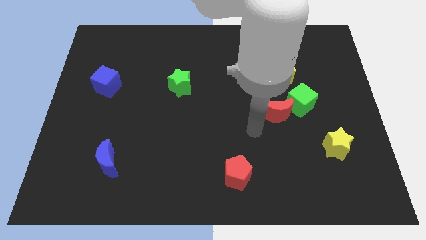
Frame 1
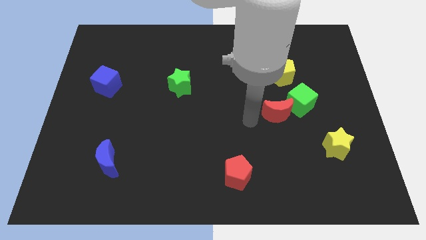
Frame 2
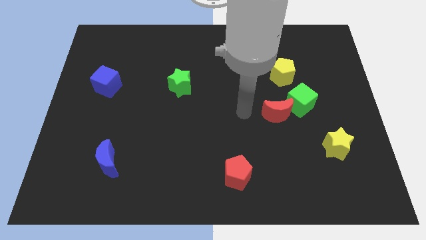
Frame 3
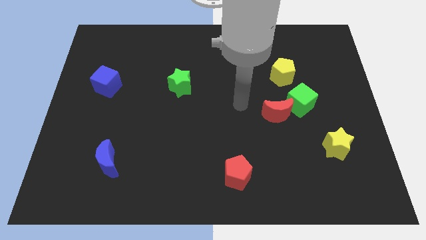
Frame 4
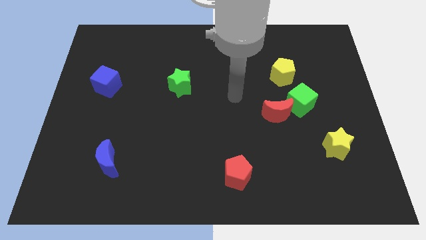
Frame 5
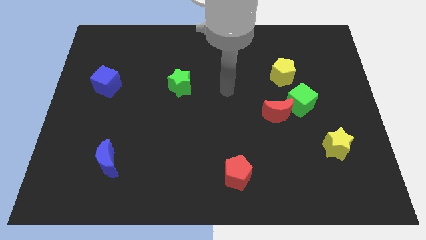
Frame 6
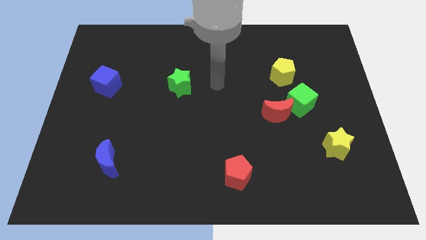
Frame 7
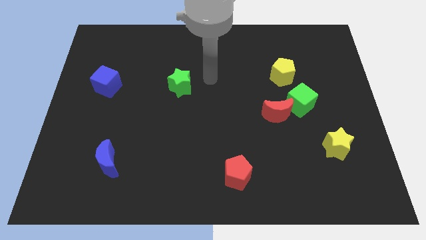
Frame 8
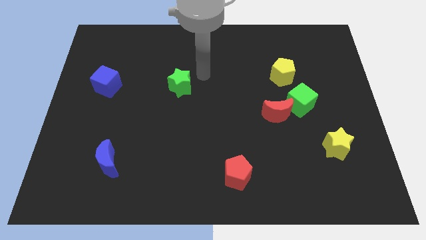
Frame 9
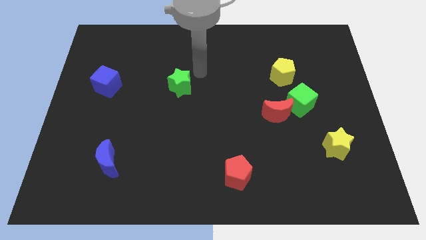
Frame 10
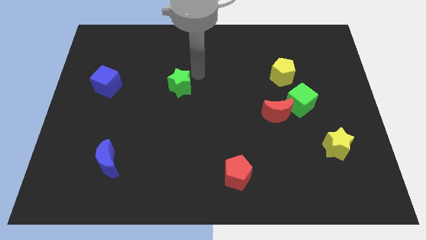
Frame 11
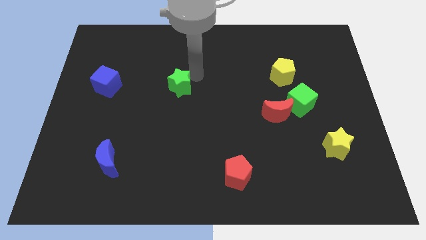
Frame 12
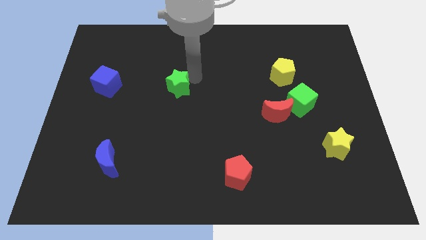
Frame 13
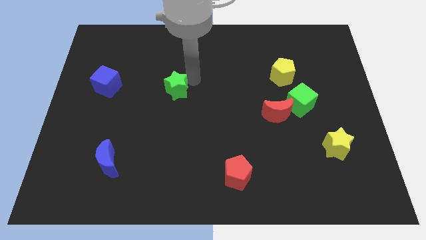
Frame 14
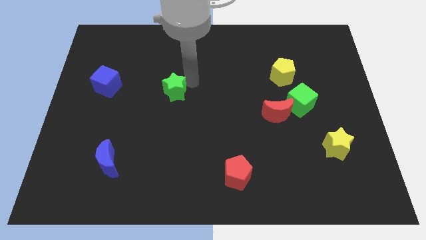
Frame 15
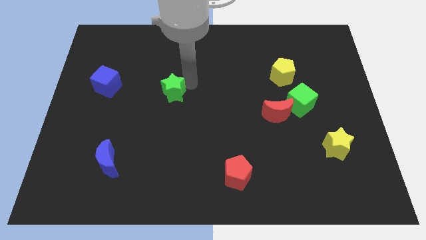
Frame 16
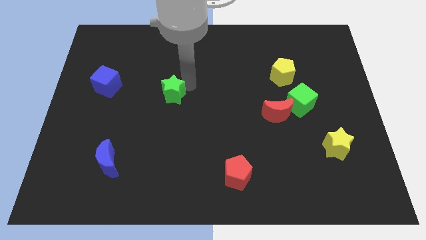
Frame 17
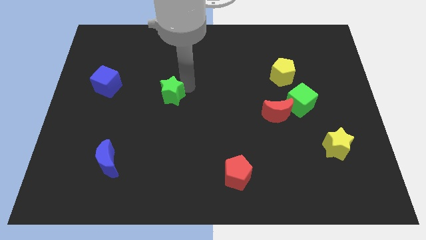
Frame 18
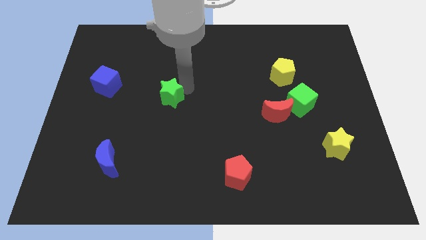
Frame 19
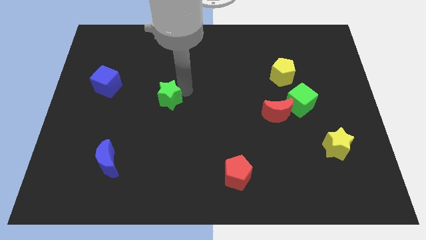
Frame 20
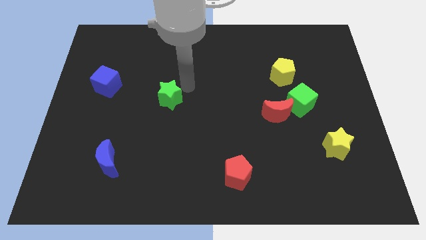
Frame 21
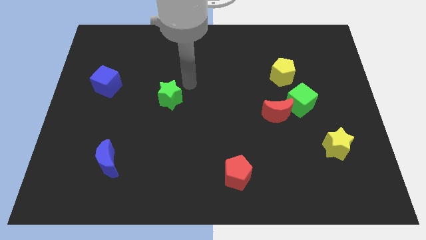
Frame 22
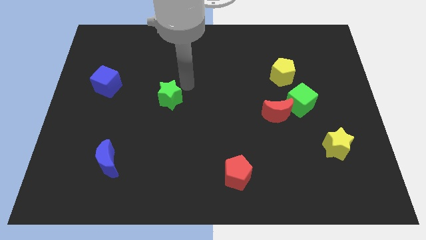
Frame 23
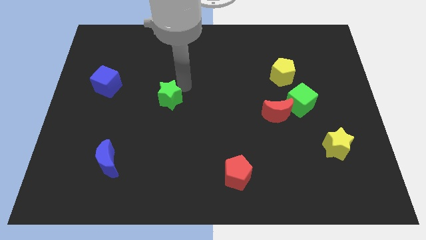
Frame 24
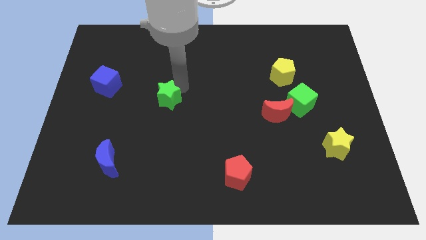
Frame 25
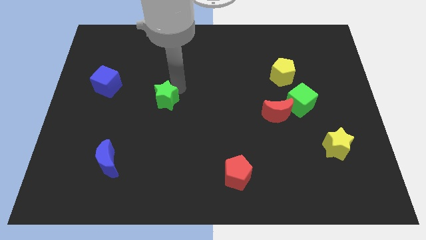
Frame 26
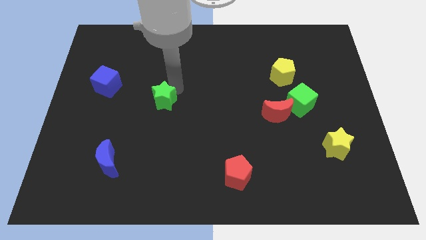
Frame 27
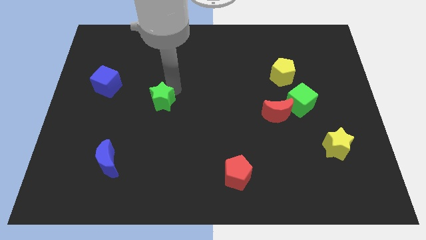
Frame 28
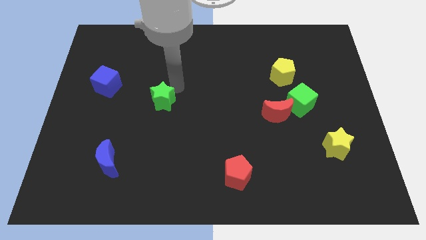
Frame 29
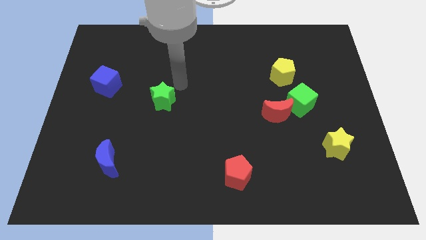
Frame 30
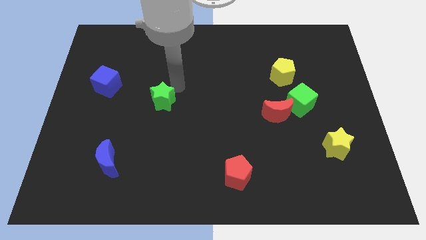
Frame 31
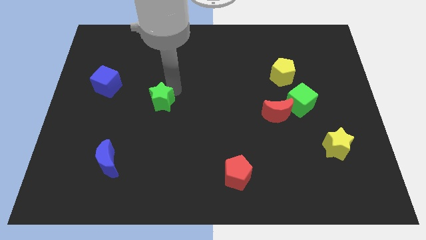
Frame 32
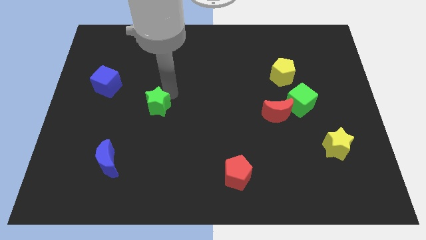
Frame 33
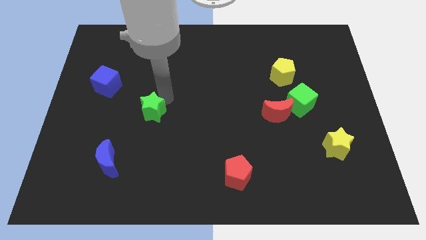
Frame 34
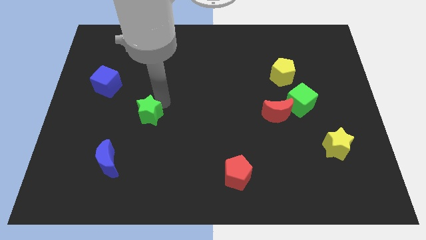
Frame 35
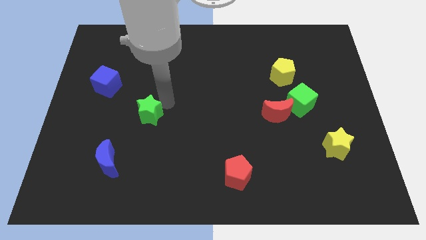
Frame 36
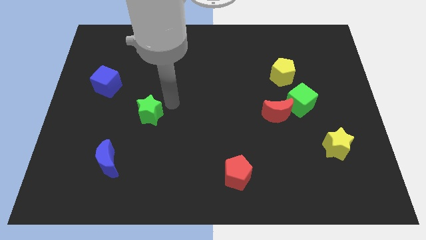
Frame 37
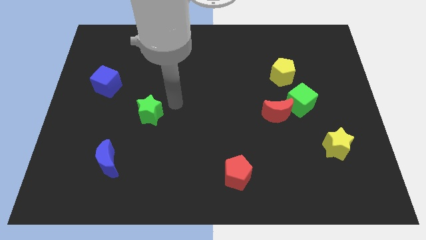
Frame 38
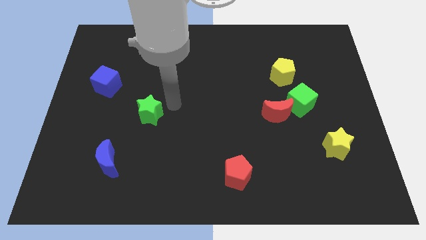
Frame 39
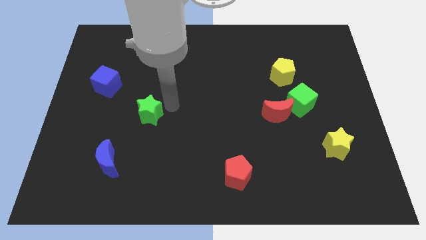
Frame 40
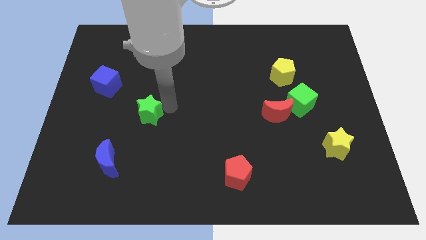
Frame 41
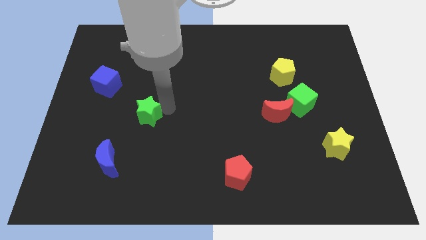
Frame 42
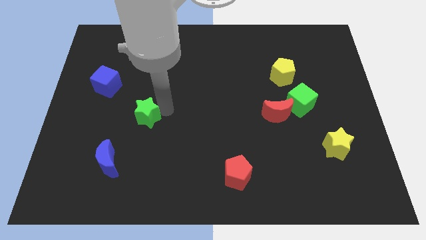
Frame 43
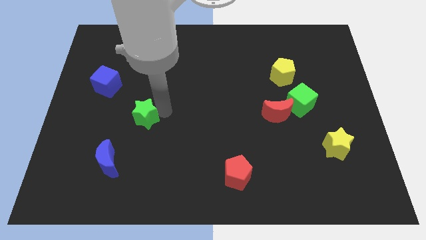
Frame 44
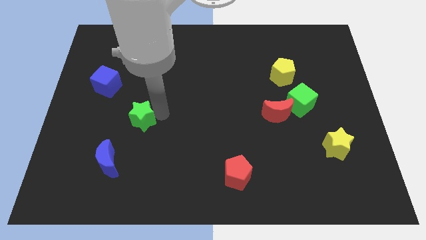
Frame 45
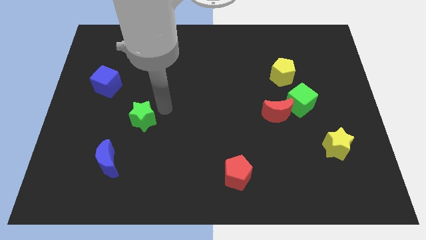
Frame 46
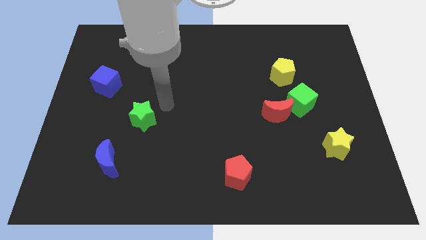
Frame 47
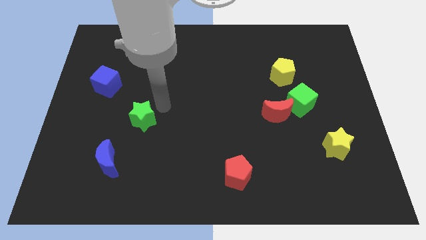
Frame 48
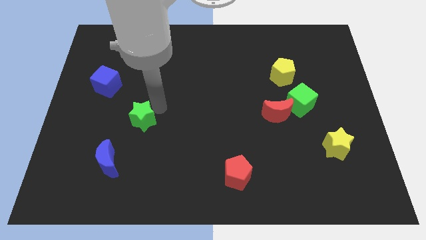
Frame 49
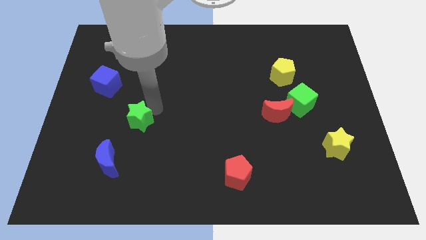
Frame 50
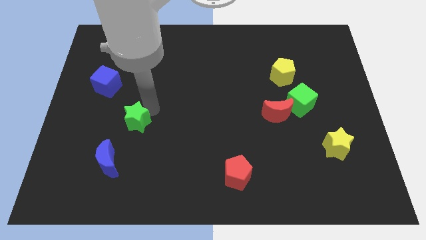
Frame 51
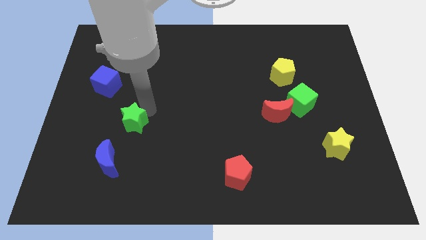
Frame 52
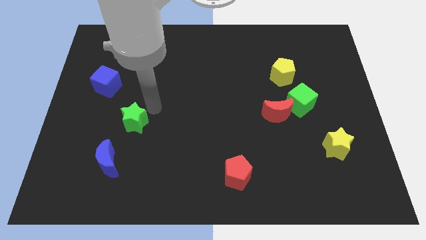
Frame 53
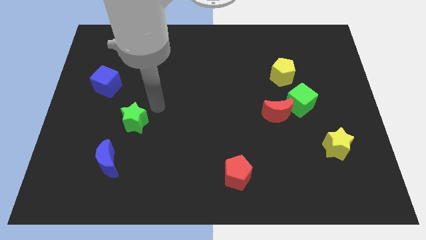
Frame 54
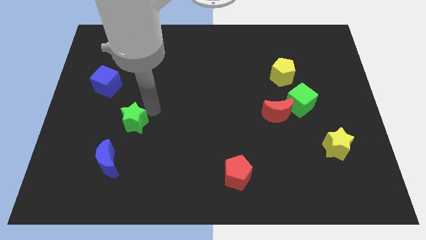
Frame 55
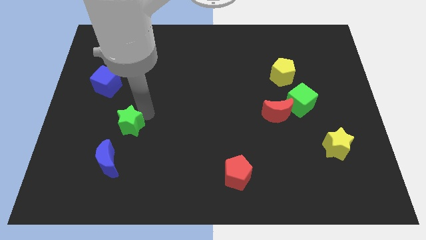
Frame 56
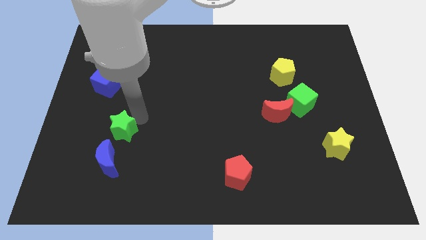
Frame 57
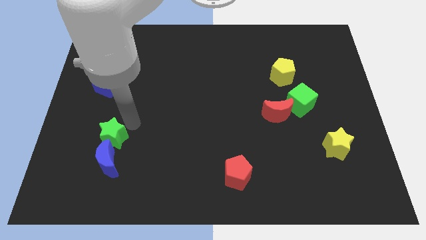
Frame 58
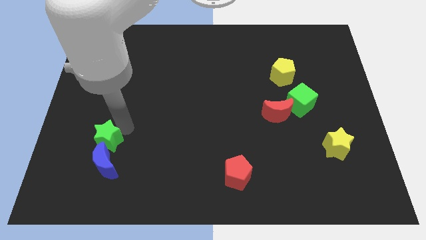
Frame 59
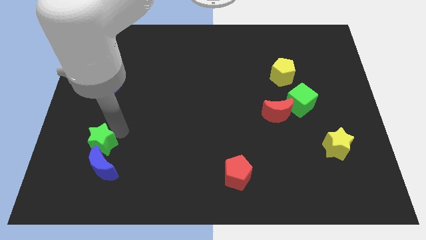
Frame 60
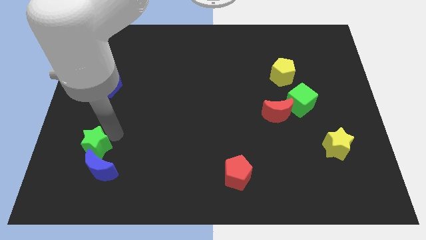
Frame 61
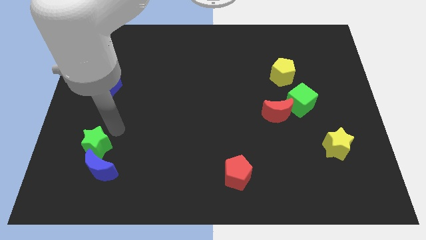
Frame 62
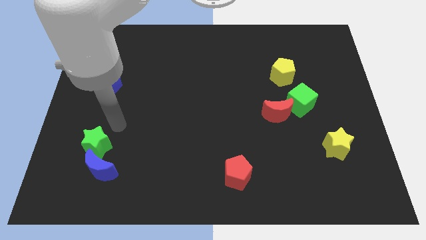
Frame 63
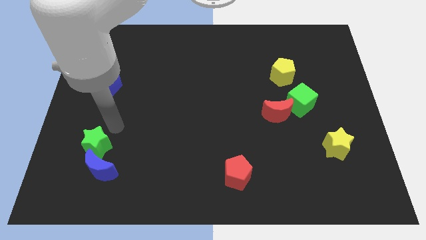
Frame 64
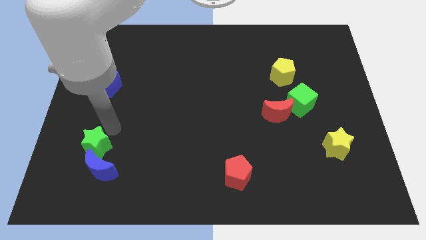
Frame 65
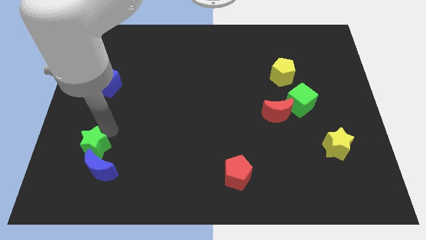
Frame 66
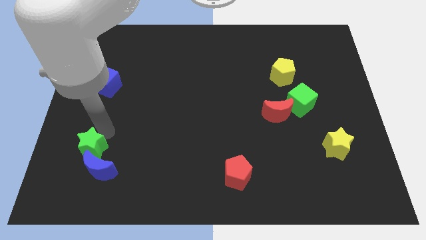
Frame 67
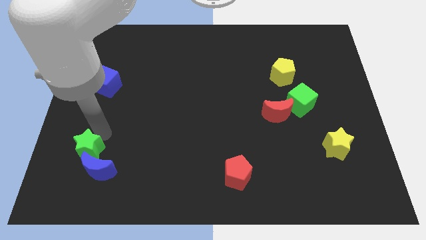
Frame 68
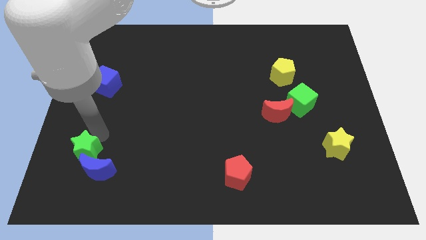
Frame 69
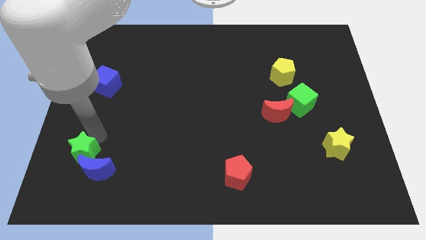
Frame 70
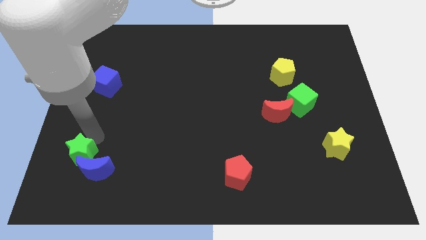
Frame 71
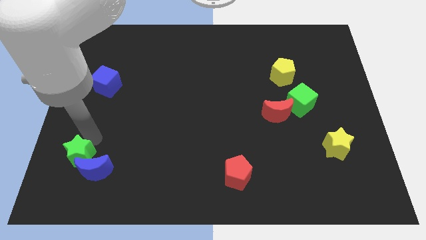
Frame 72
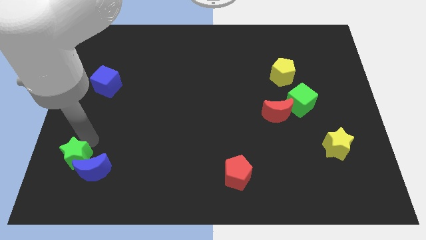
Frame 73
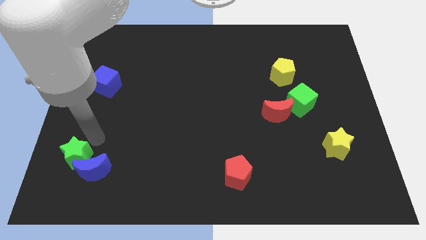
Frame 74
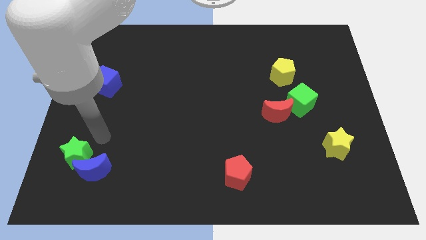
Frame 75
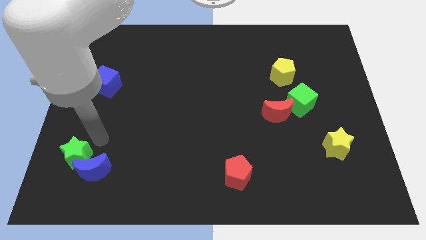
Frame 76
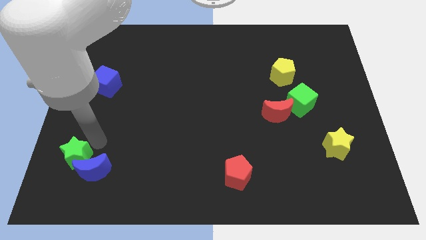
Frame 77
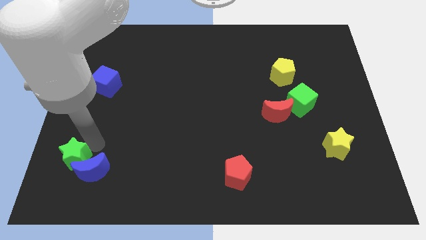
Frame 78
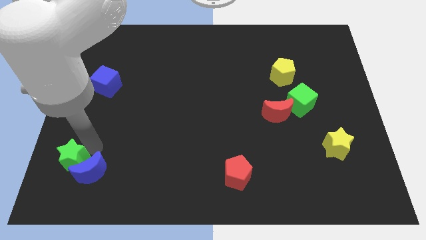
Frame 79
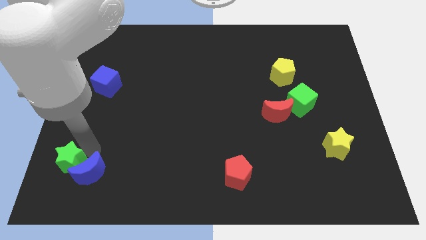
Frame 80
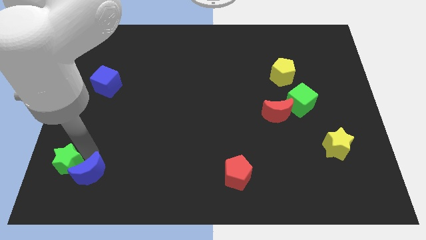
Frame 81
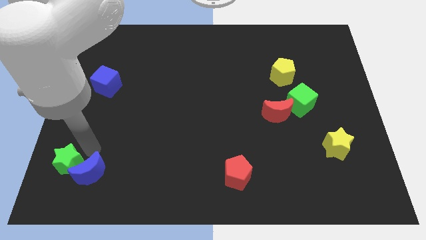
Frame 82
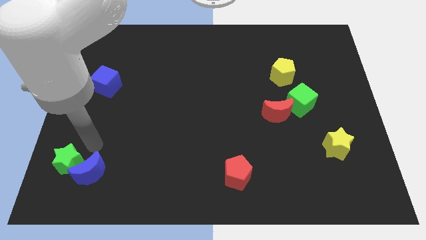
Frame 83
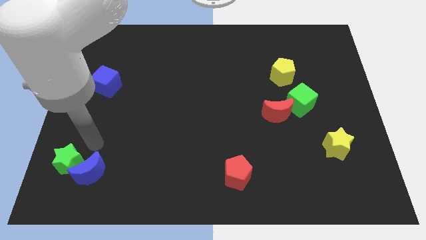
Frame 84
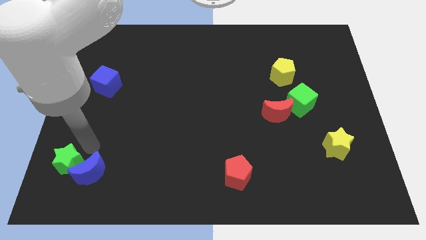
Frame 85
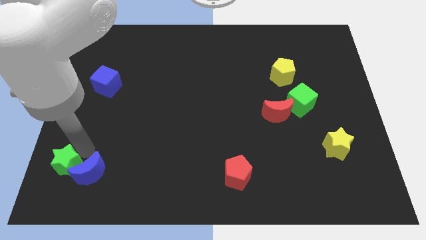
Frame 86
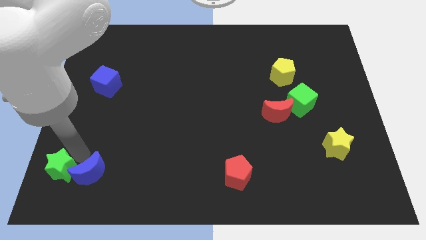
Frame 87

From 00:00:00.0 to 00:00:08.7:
put the green star to the bottom left of the board
